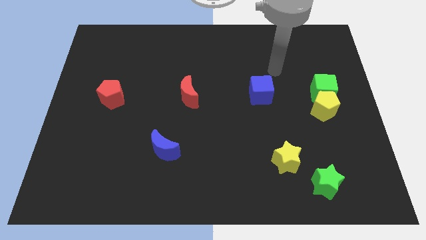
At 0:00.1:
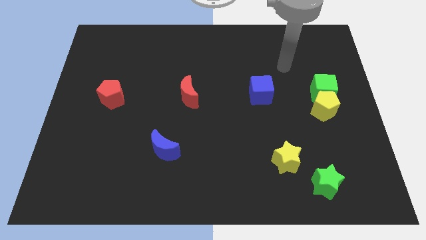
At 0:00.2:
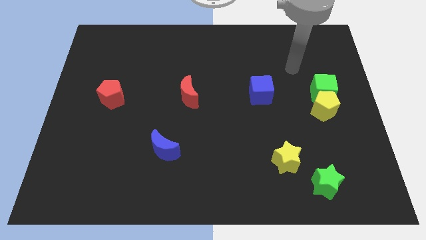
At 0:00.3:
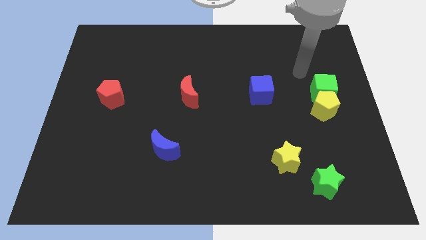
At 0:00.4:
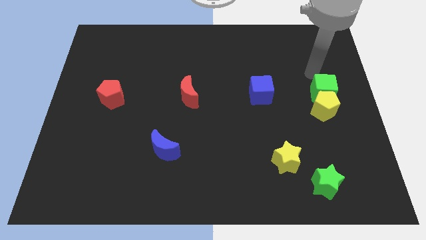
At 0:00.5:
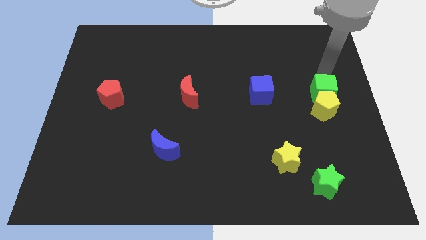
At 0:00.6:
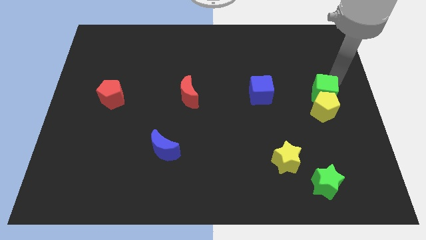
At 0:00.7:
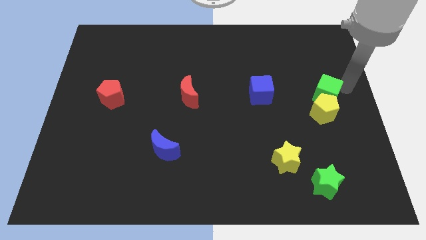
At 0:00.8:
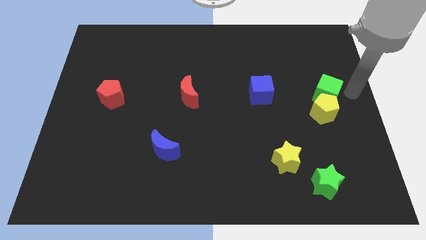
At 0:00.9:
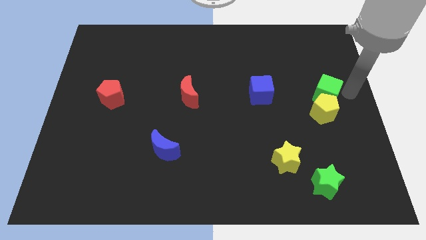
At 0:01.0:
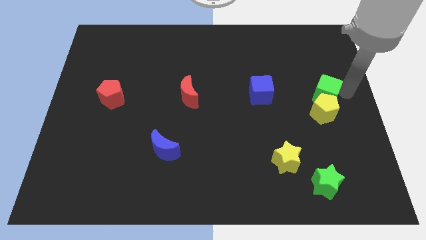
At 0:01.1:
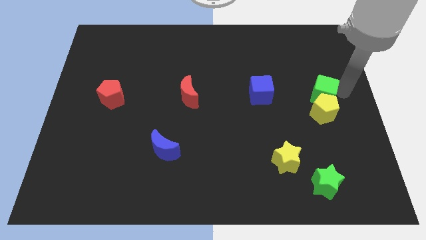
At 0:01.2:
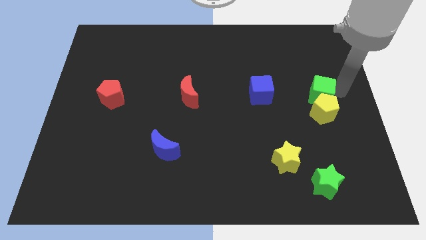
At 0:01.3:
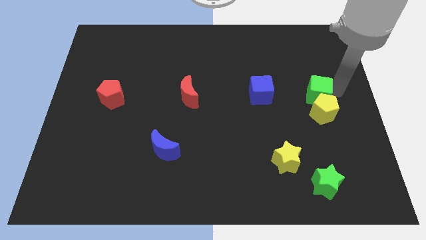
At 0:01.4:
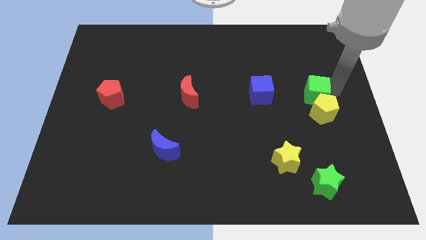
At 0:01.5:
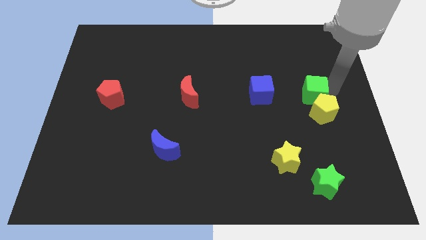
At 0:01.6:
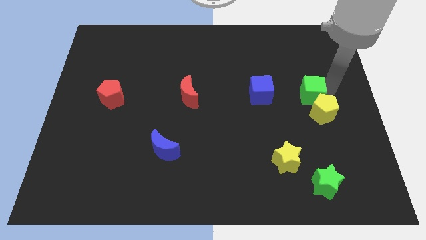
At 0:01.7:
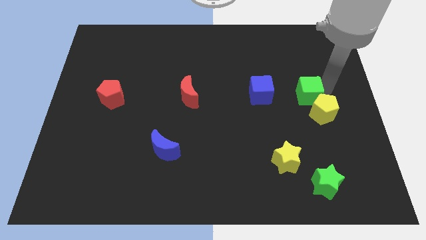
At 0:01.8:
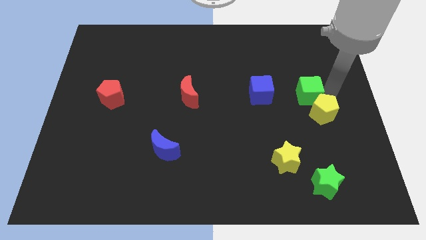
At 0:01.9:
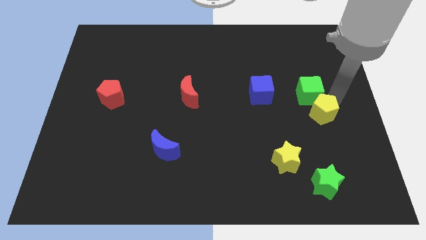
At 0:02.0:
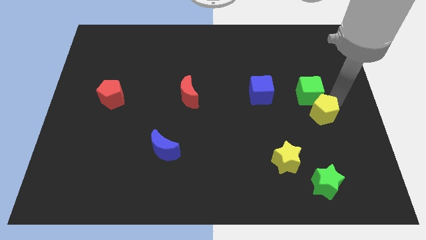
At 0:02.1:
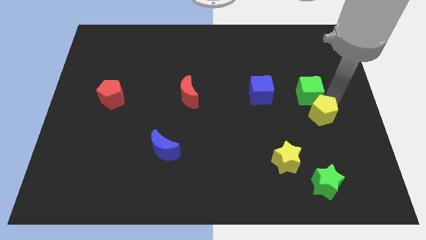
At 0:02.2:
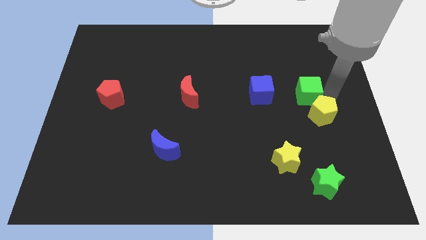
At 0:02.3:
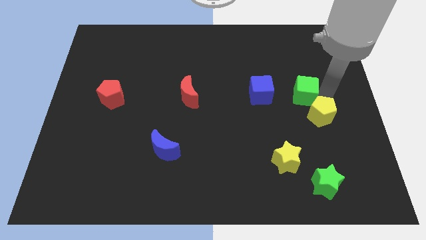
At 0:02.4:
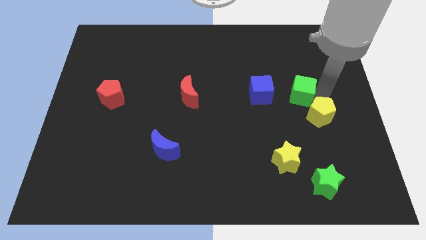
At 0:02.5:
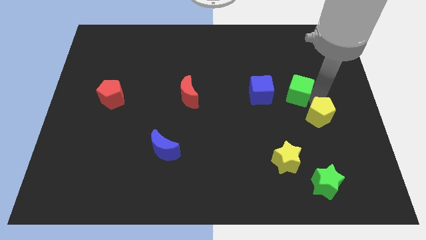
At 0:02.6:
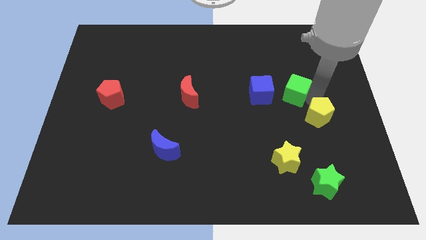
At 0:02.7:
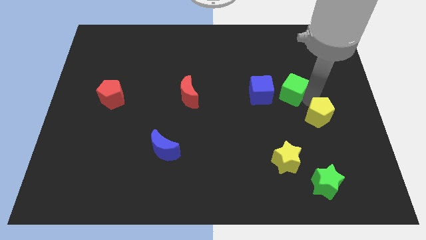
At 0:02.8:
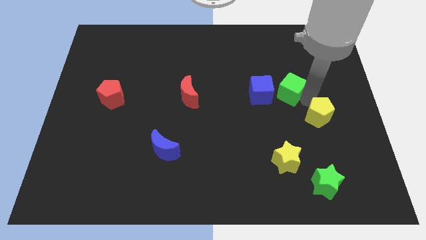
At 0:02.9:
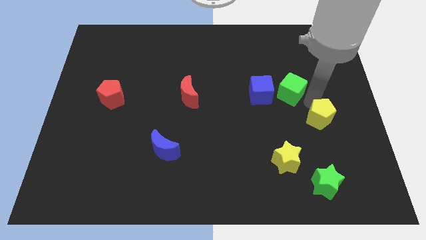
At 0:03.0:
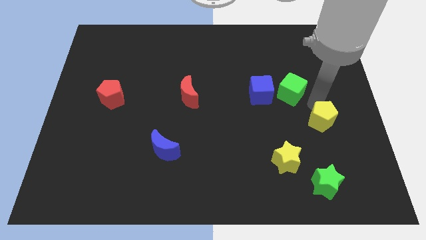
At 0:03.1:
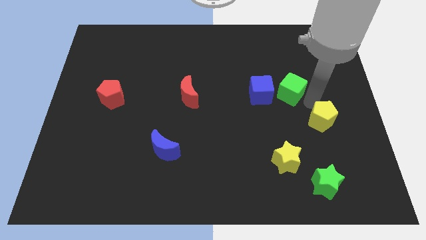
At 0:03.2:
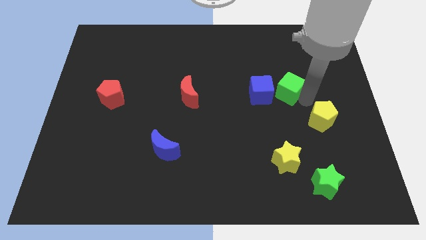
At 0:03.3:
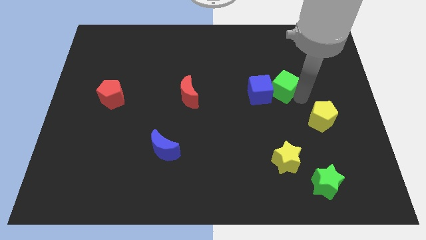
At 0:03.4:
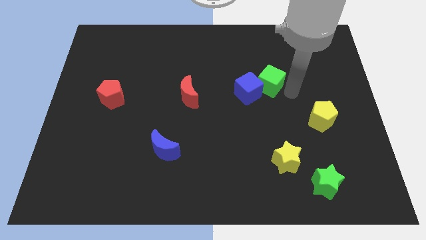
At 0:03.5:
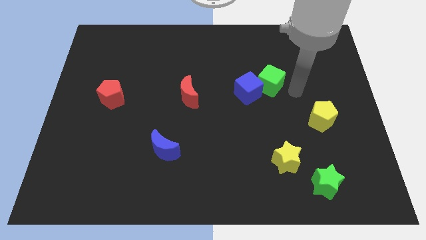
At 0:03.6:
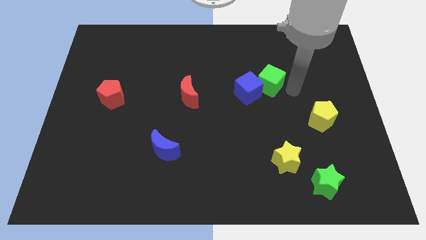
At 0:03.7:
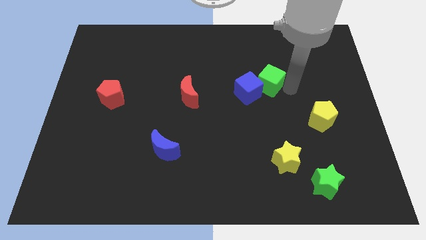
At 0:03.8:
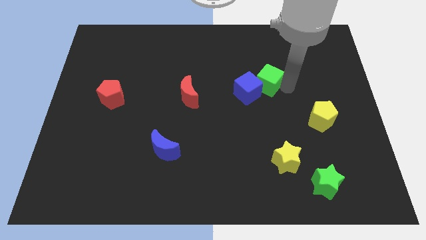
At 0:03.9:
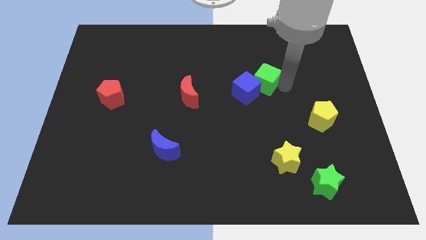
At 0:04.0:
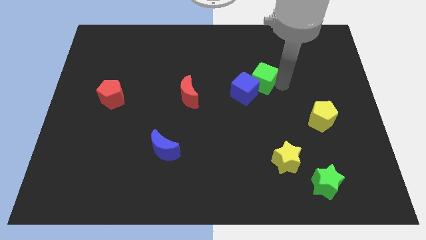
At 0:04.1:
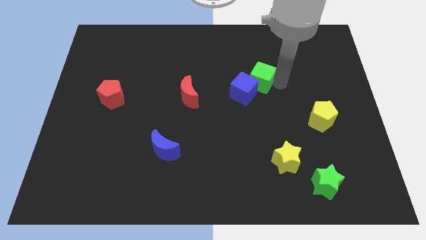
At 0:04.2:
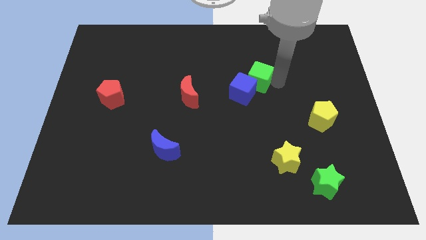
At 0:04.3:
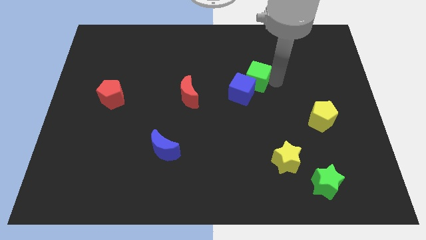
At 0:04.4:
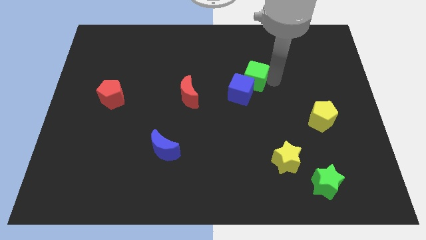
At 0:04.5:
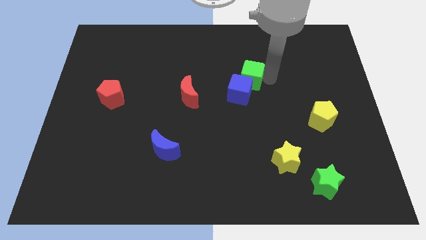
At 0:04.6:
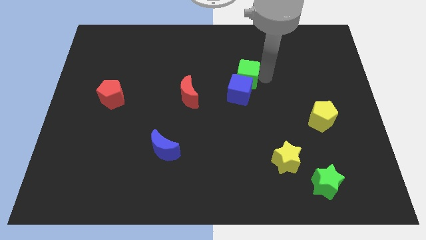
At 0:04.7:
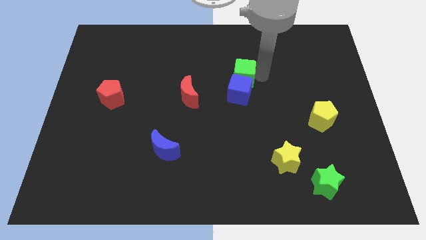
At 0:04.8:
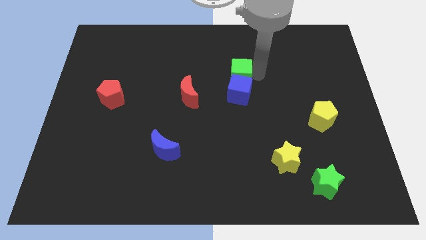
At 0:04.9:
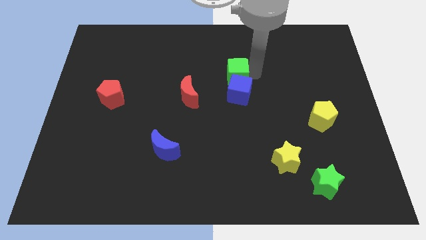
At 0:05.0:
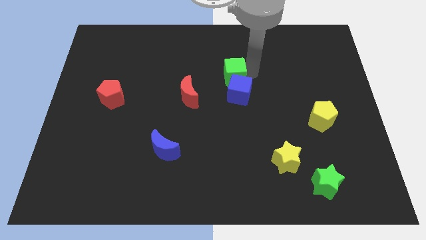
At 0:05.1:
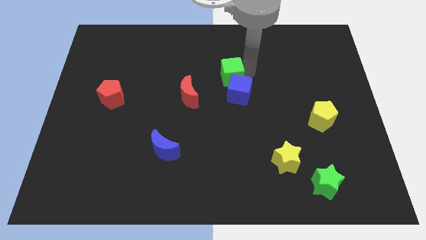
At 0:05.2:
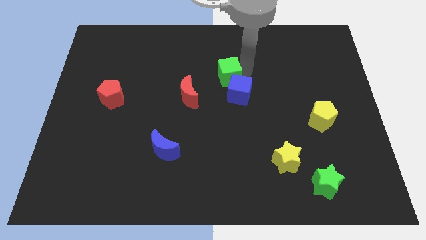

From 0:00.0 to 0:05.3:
move the green cube diagonally up and to the right of the red moon

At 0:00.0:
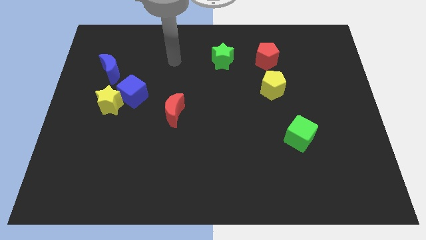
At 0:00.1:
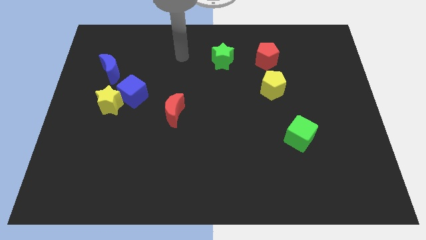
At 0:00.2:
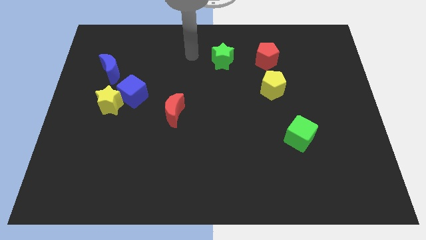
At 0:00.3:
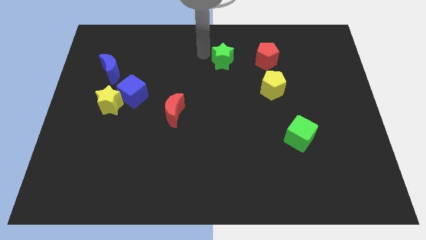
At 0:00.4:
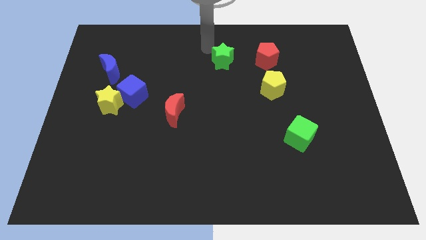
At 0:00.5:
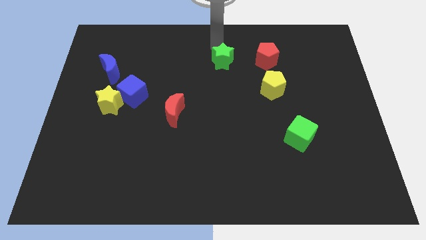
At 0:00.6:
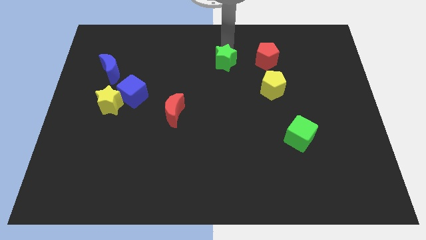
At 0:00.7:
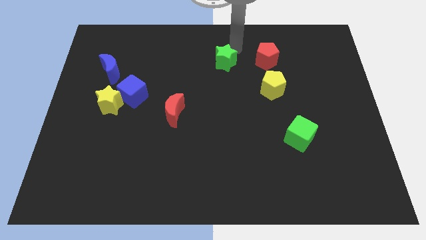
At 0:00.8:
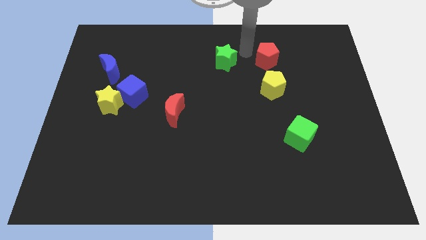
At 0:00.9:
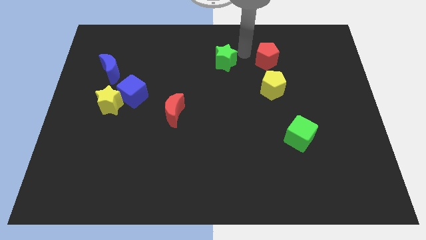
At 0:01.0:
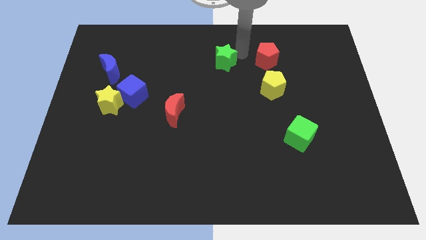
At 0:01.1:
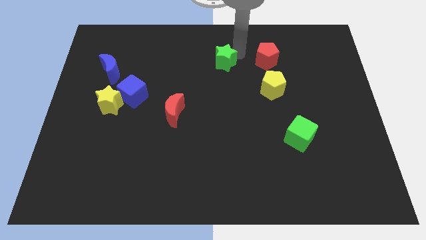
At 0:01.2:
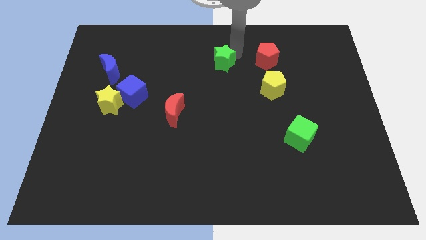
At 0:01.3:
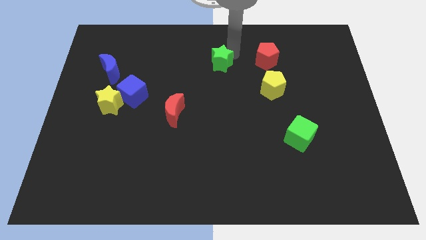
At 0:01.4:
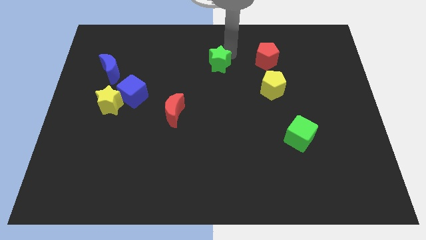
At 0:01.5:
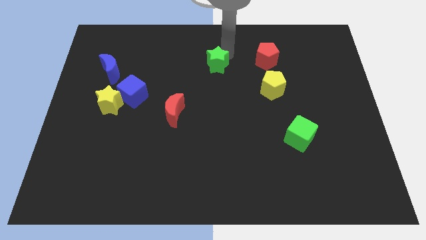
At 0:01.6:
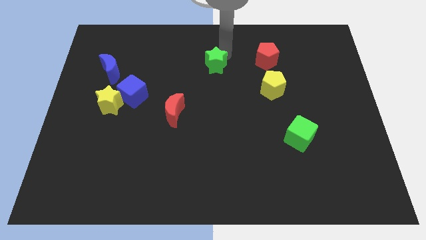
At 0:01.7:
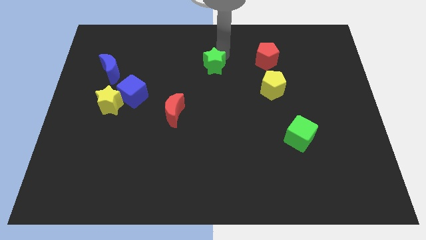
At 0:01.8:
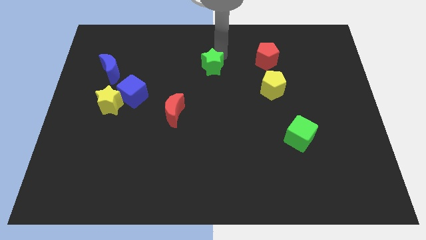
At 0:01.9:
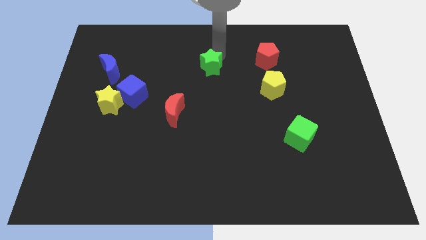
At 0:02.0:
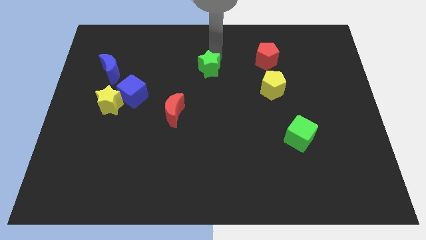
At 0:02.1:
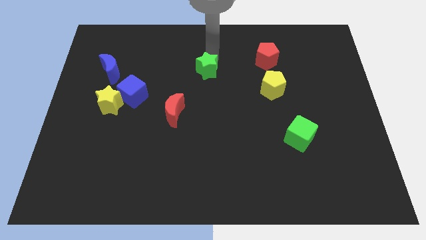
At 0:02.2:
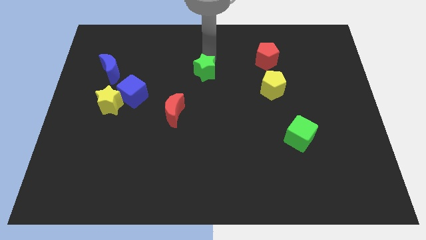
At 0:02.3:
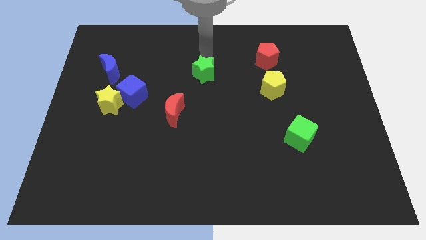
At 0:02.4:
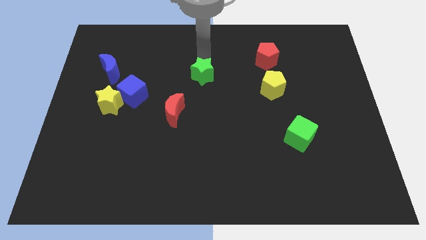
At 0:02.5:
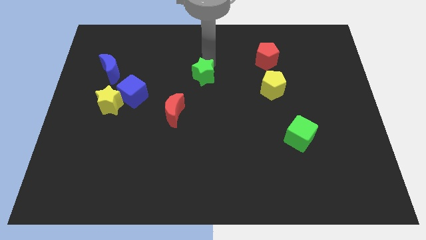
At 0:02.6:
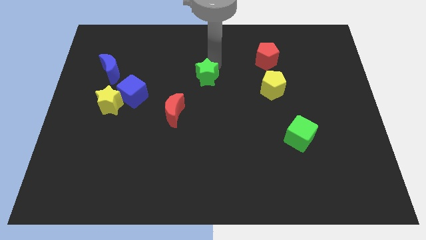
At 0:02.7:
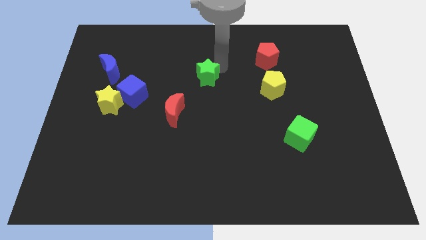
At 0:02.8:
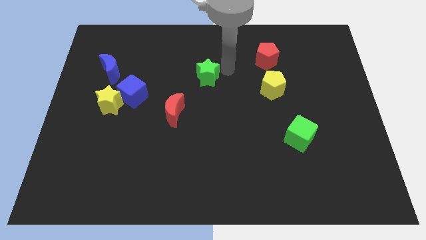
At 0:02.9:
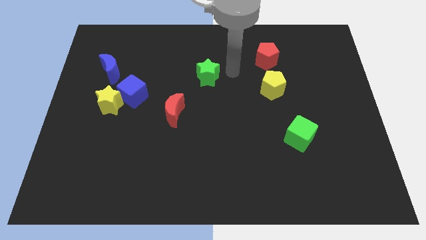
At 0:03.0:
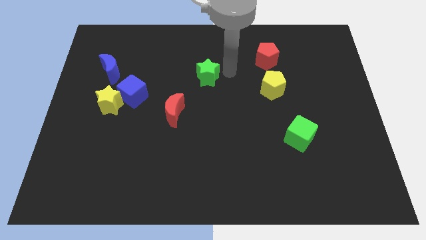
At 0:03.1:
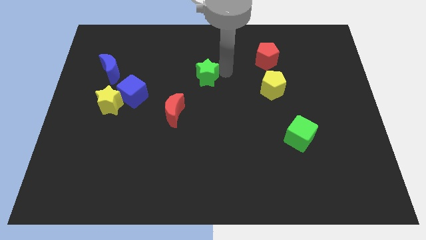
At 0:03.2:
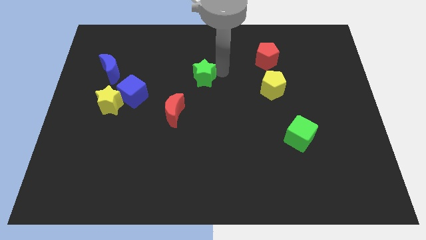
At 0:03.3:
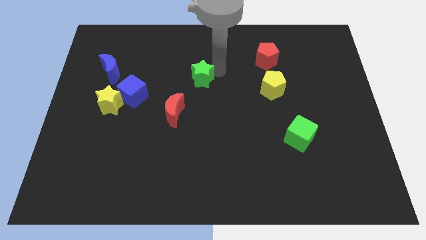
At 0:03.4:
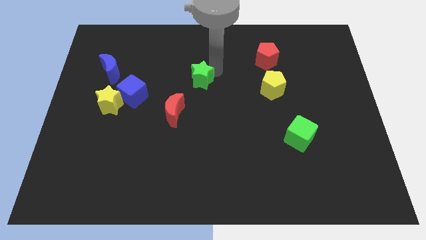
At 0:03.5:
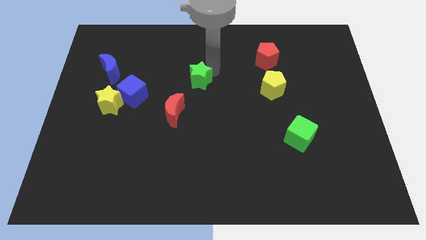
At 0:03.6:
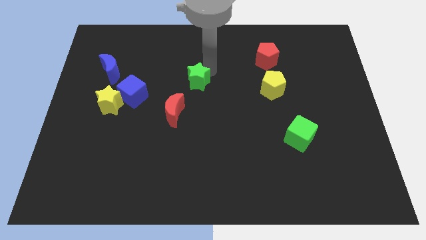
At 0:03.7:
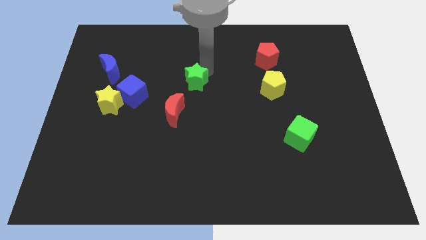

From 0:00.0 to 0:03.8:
push the green star above the red moon
